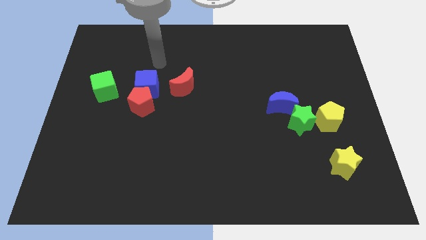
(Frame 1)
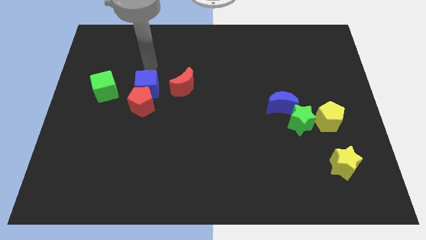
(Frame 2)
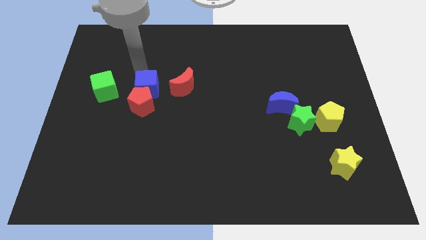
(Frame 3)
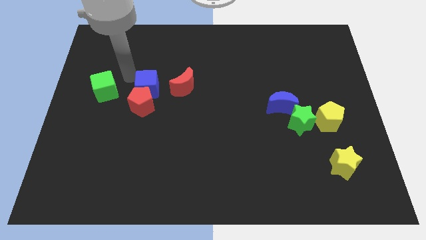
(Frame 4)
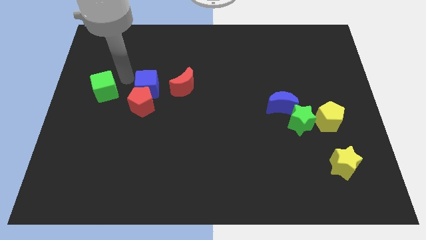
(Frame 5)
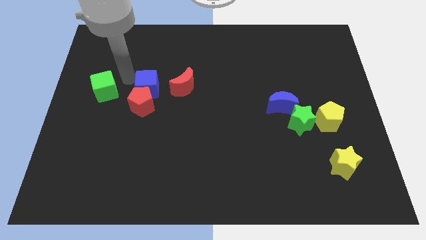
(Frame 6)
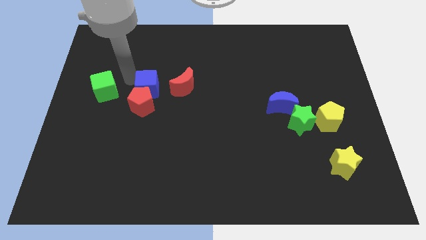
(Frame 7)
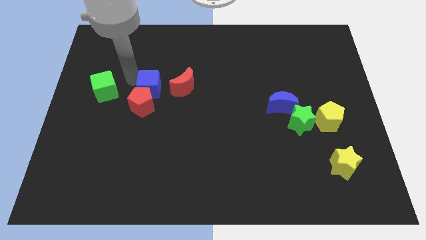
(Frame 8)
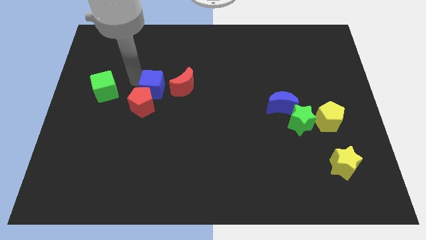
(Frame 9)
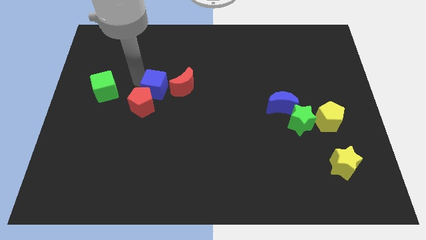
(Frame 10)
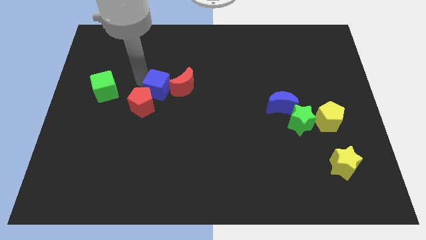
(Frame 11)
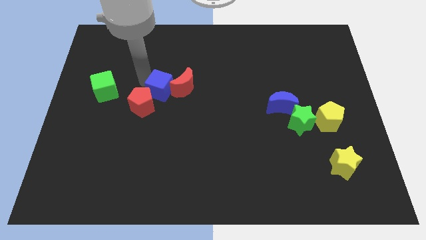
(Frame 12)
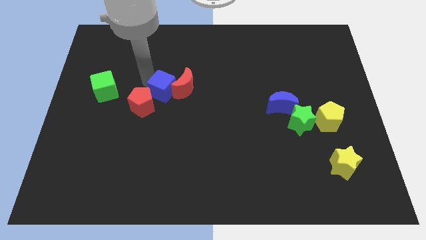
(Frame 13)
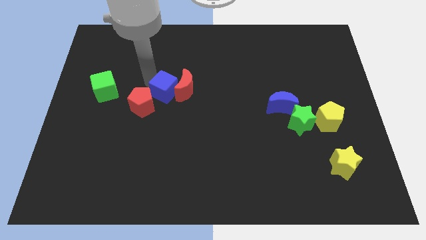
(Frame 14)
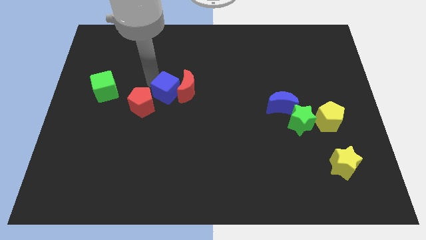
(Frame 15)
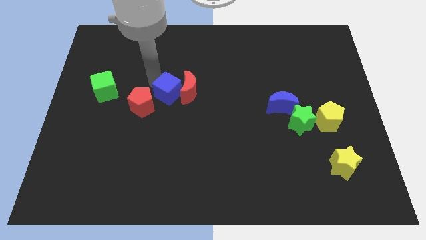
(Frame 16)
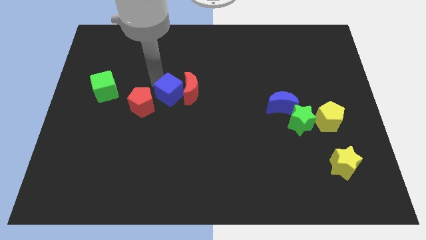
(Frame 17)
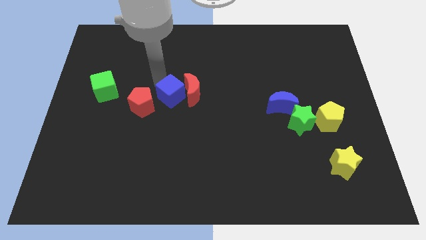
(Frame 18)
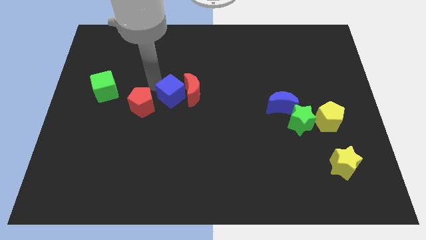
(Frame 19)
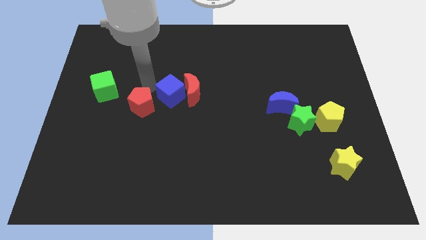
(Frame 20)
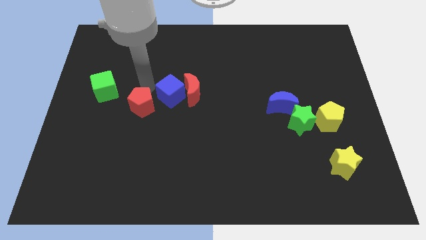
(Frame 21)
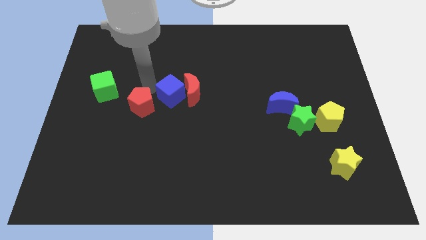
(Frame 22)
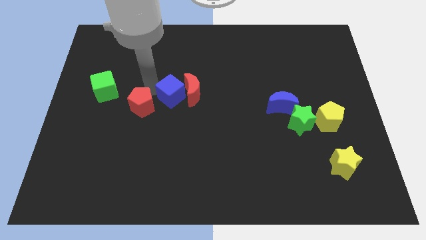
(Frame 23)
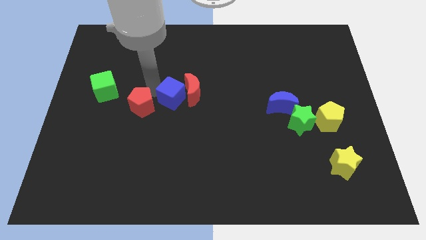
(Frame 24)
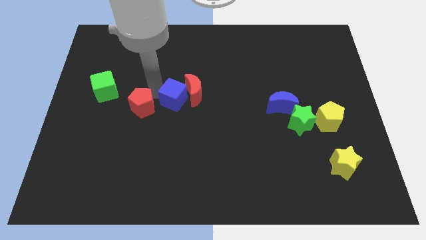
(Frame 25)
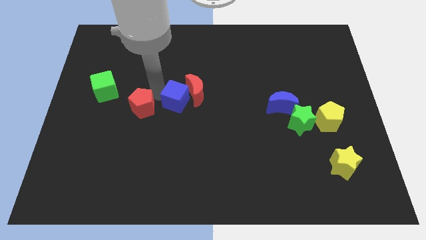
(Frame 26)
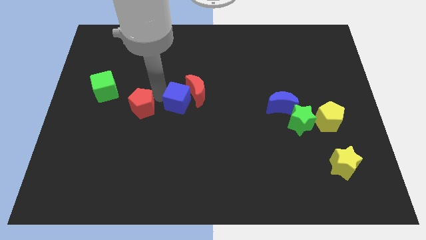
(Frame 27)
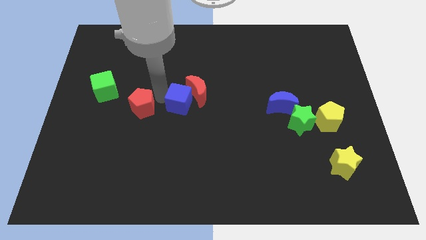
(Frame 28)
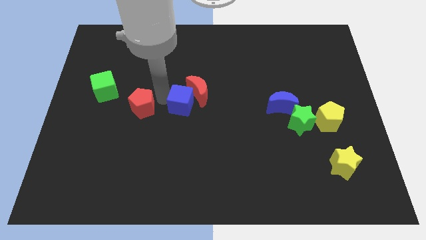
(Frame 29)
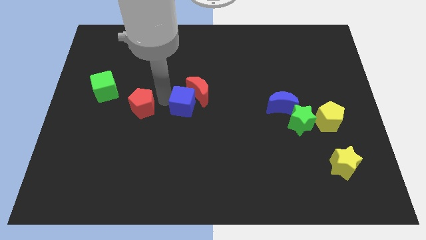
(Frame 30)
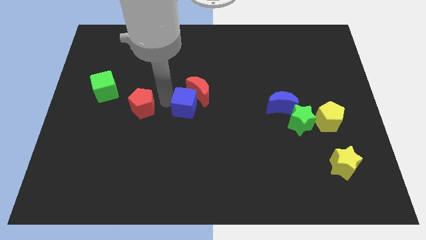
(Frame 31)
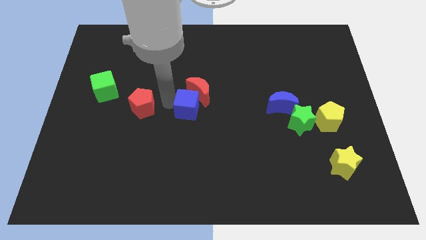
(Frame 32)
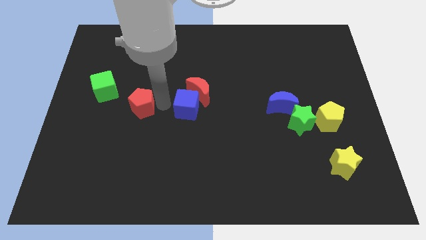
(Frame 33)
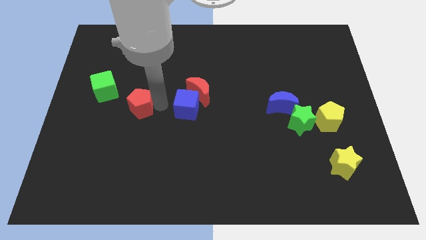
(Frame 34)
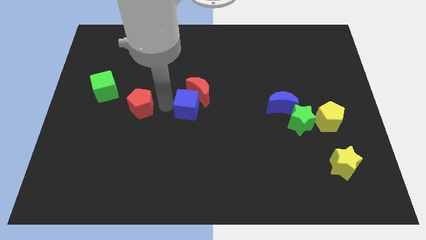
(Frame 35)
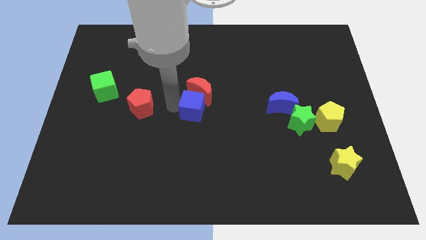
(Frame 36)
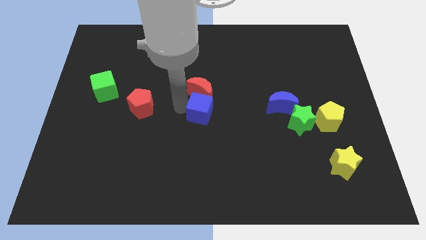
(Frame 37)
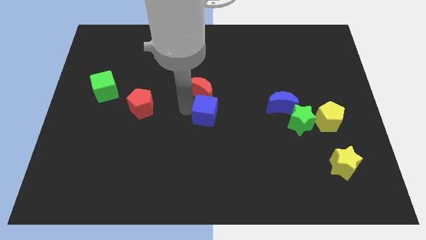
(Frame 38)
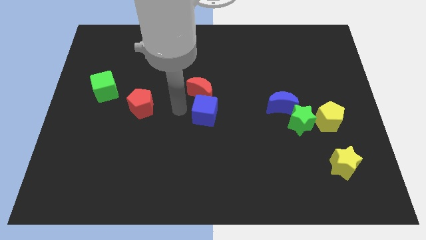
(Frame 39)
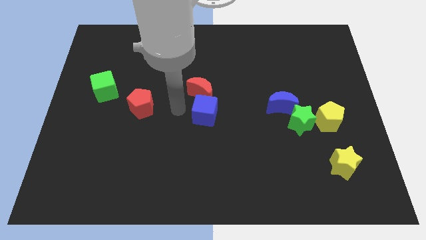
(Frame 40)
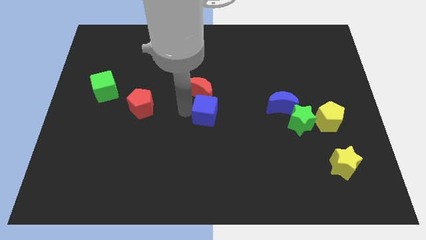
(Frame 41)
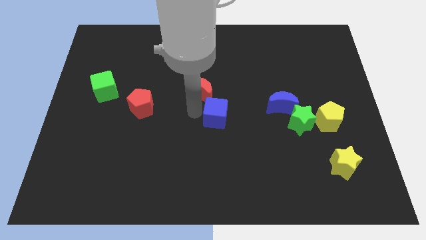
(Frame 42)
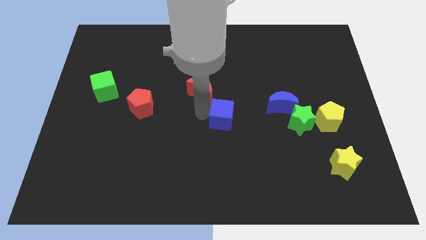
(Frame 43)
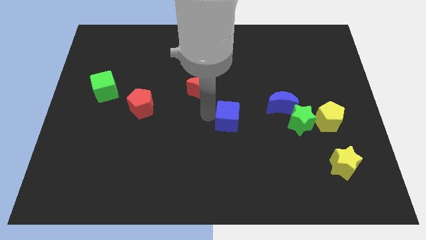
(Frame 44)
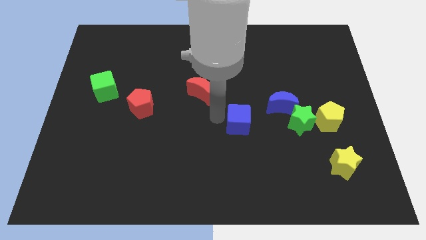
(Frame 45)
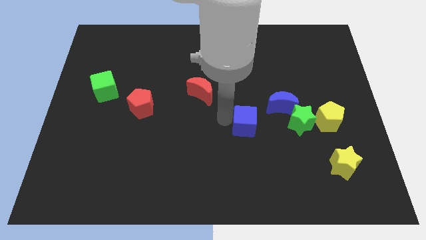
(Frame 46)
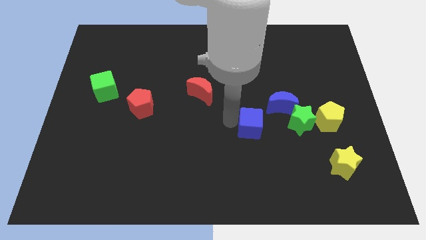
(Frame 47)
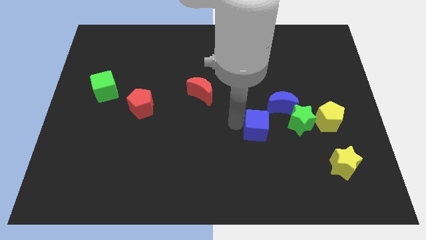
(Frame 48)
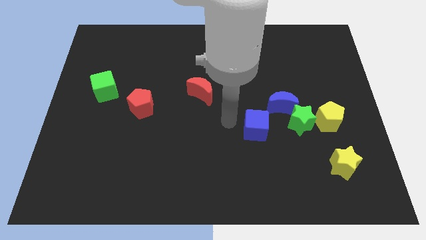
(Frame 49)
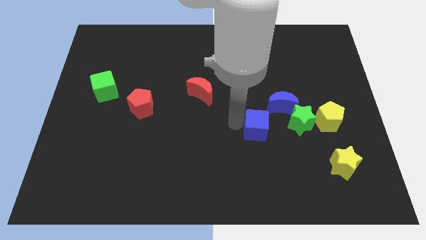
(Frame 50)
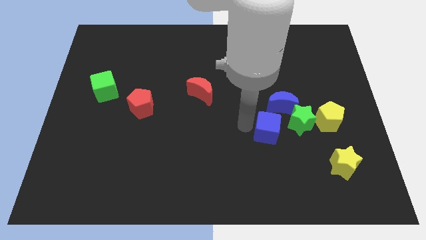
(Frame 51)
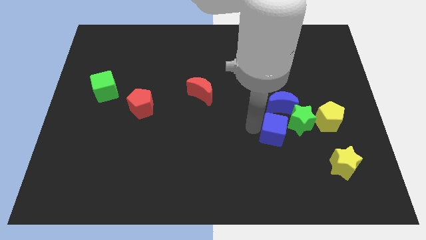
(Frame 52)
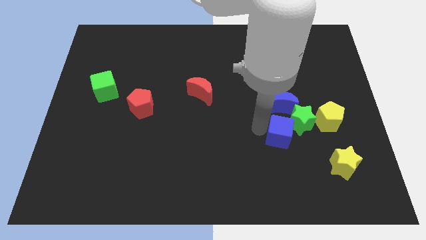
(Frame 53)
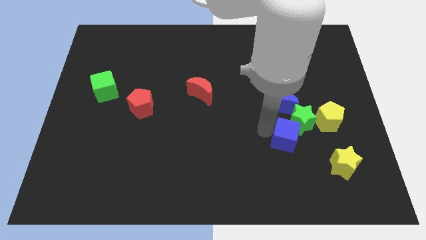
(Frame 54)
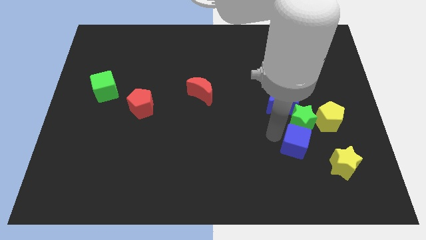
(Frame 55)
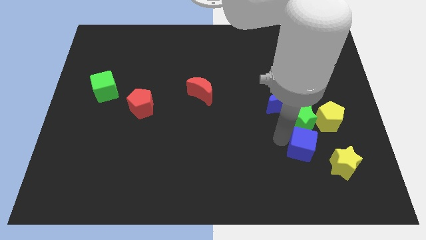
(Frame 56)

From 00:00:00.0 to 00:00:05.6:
put the blue cube to the bottom right of the green star
